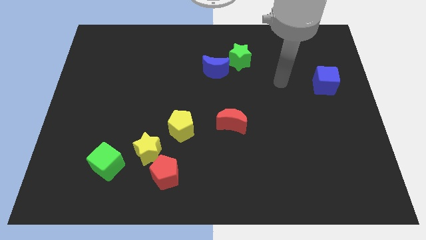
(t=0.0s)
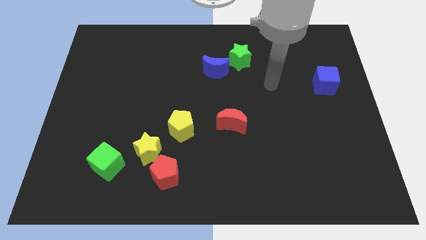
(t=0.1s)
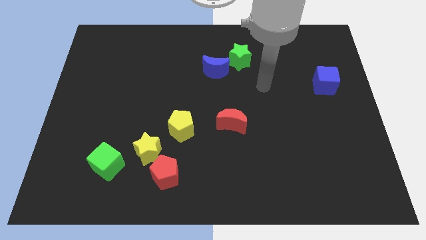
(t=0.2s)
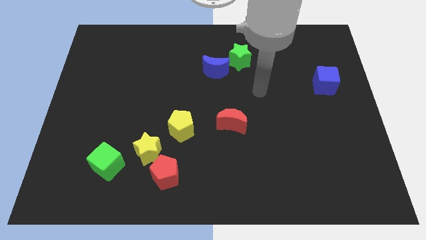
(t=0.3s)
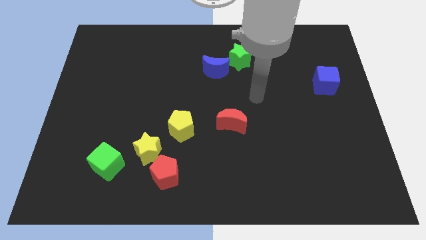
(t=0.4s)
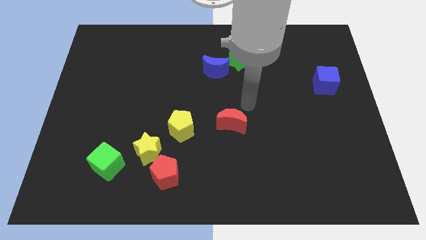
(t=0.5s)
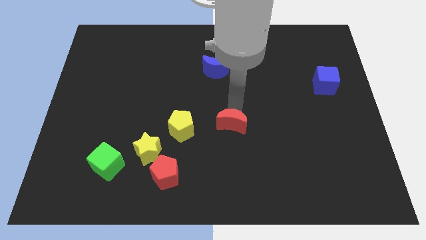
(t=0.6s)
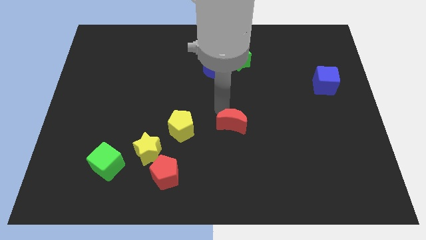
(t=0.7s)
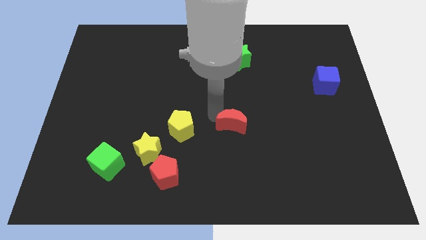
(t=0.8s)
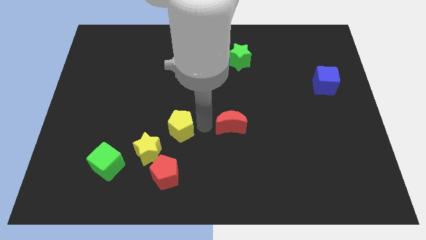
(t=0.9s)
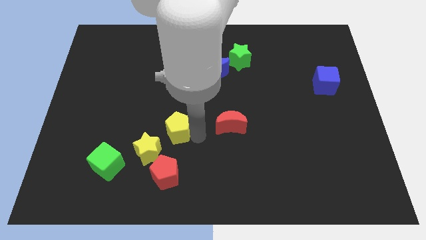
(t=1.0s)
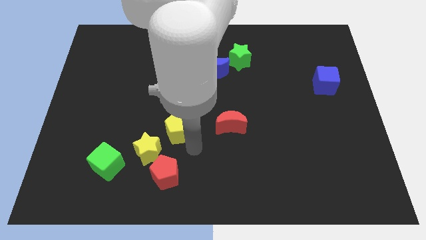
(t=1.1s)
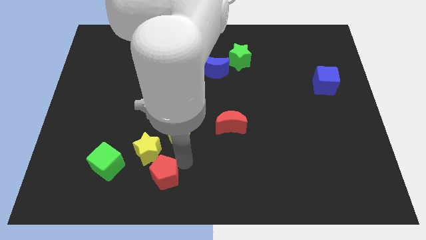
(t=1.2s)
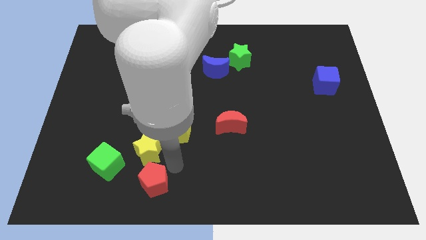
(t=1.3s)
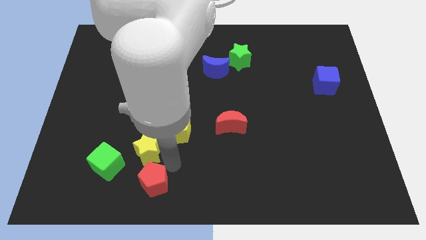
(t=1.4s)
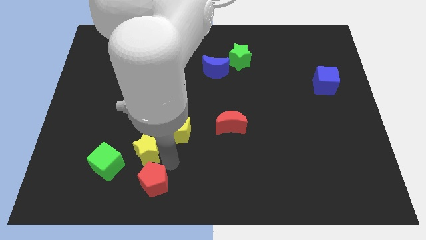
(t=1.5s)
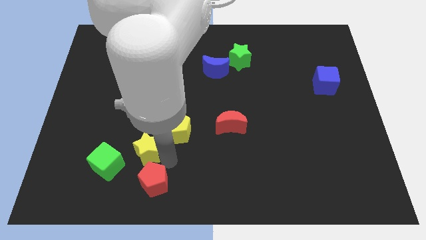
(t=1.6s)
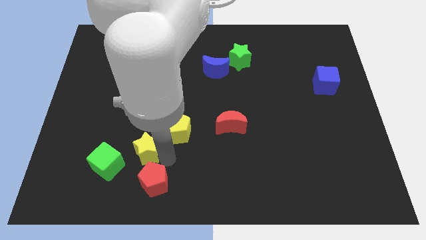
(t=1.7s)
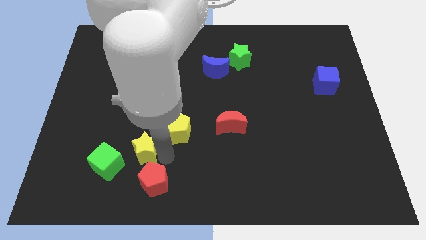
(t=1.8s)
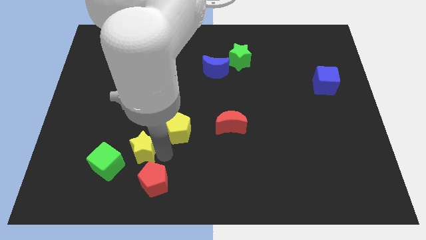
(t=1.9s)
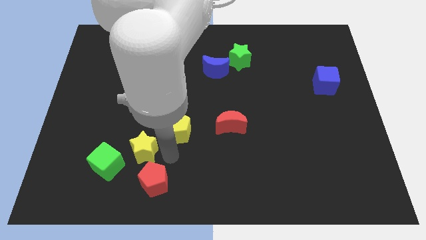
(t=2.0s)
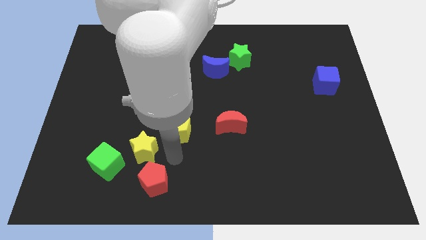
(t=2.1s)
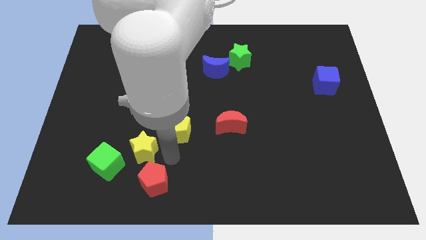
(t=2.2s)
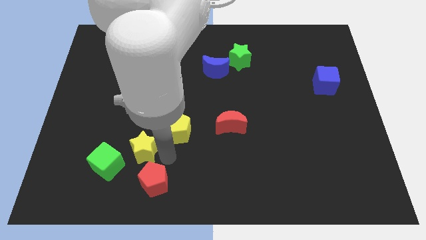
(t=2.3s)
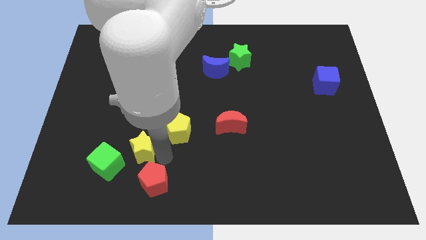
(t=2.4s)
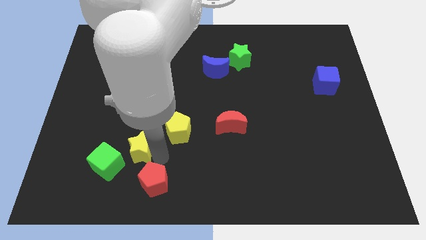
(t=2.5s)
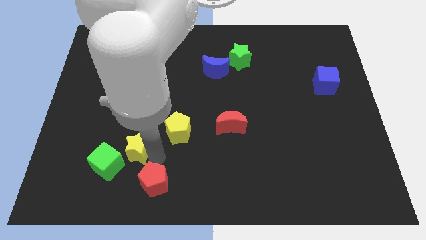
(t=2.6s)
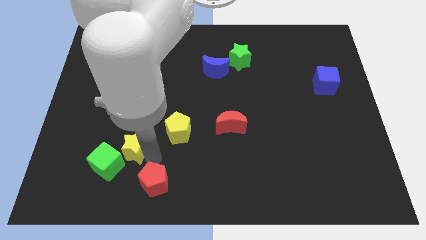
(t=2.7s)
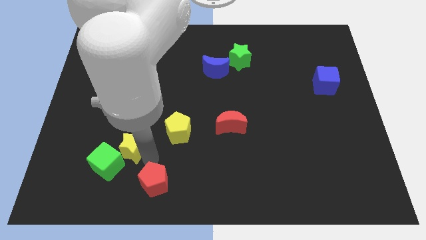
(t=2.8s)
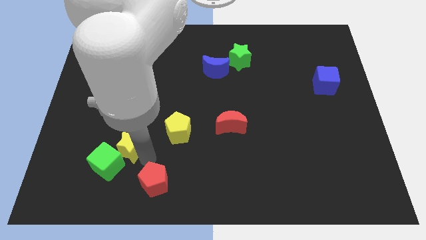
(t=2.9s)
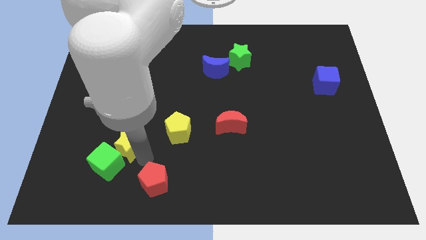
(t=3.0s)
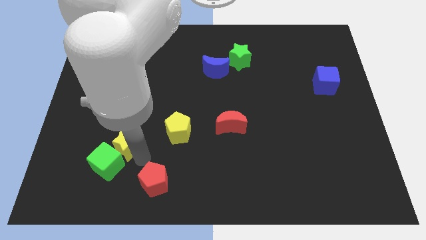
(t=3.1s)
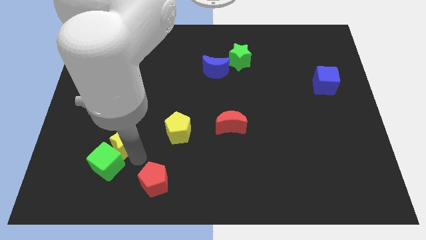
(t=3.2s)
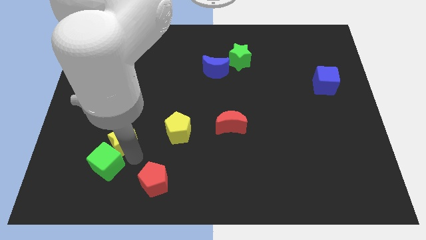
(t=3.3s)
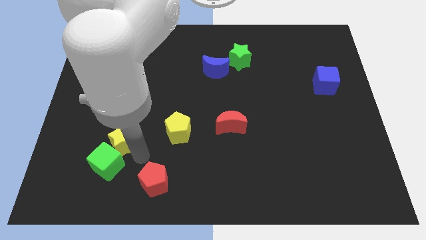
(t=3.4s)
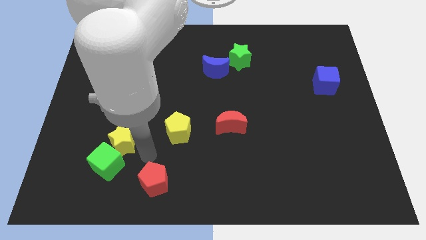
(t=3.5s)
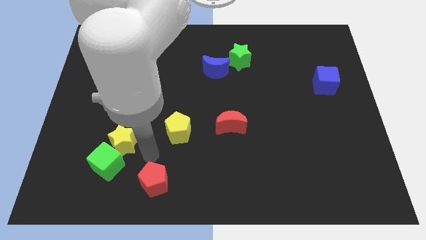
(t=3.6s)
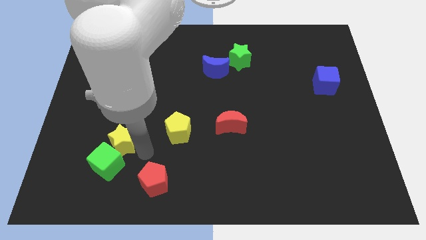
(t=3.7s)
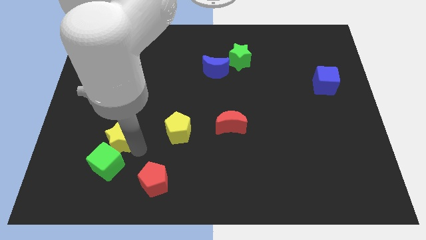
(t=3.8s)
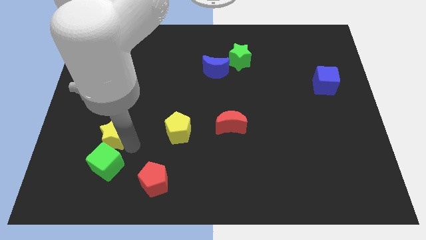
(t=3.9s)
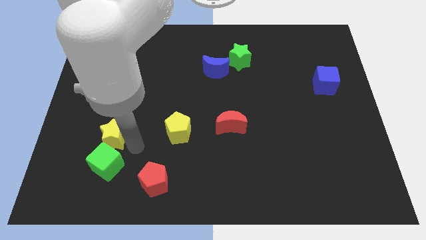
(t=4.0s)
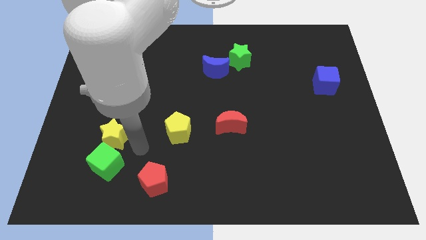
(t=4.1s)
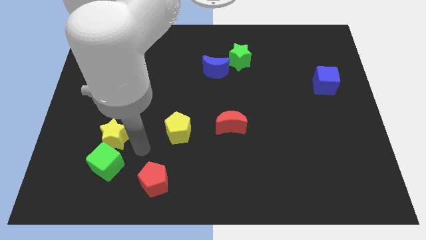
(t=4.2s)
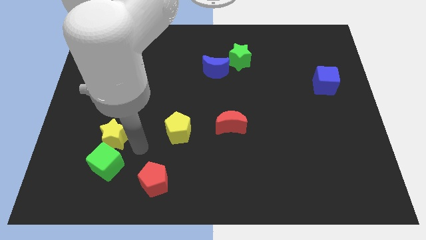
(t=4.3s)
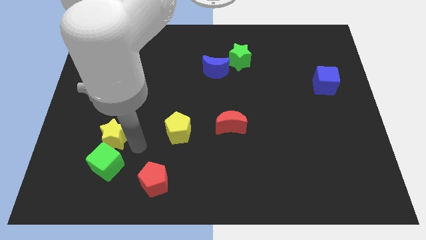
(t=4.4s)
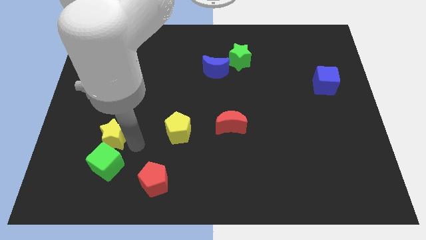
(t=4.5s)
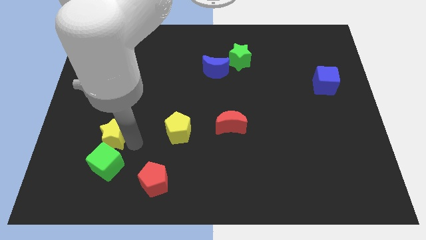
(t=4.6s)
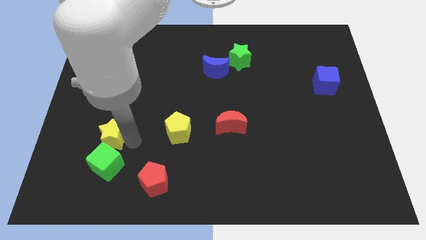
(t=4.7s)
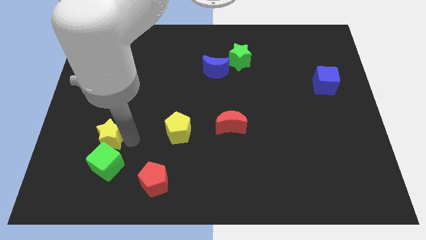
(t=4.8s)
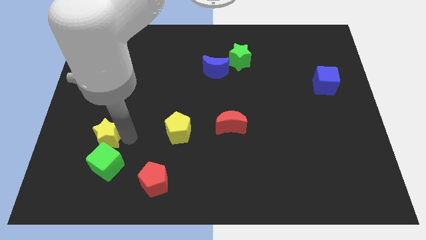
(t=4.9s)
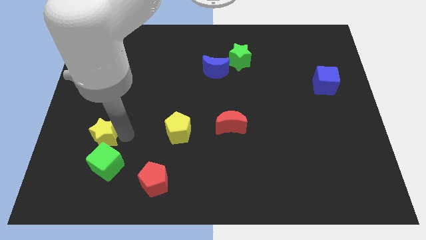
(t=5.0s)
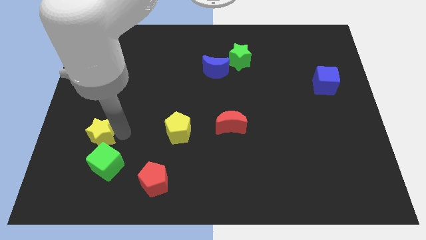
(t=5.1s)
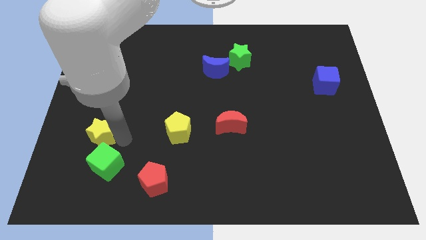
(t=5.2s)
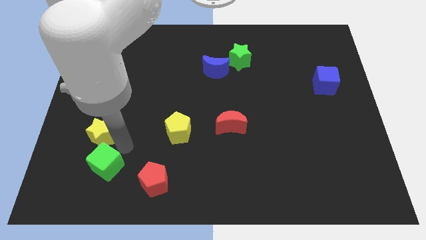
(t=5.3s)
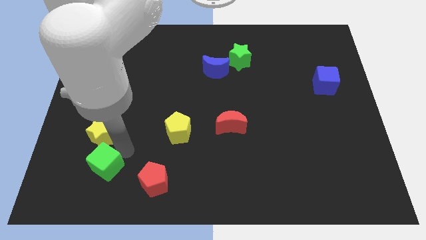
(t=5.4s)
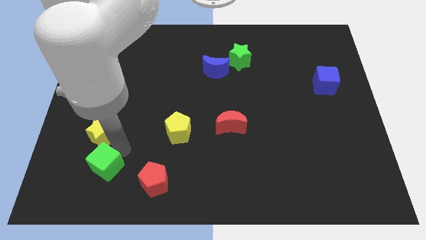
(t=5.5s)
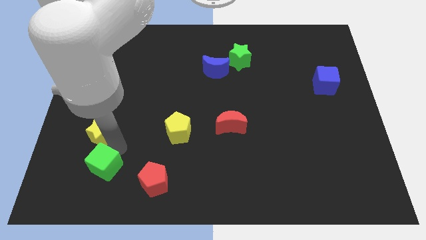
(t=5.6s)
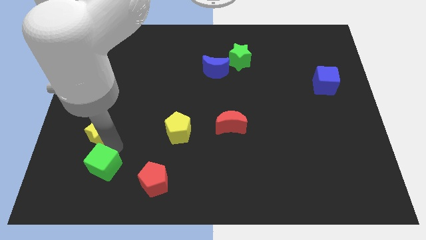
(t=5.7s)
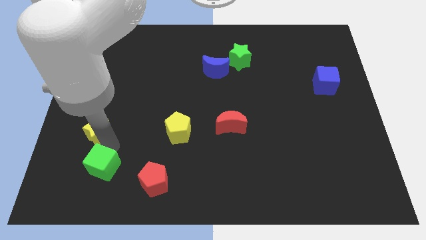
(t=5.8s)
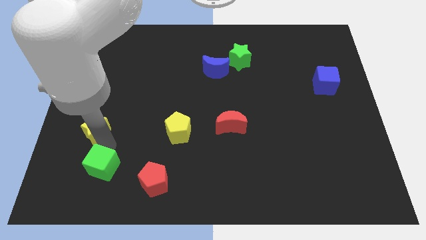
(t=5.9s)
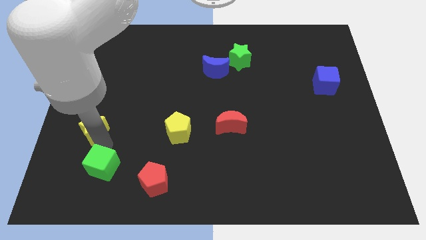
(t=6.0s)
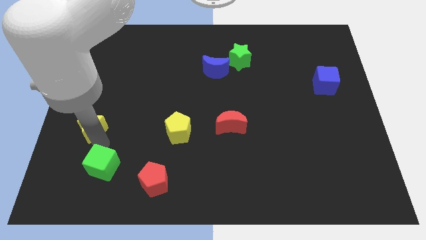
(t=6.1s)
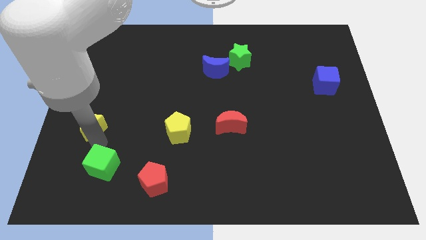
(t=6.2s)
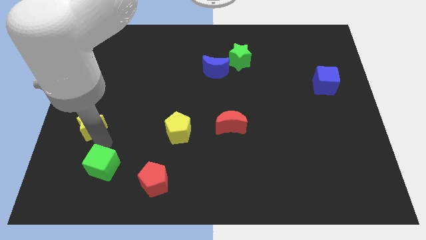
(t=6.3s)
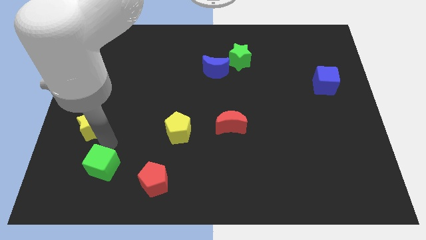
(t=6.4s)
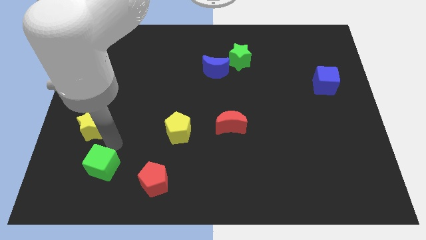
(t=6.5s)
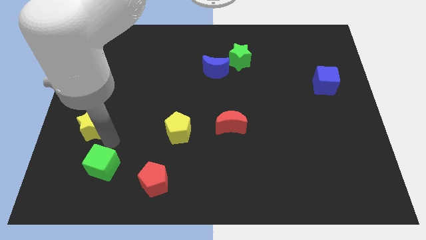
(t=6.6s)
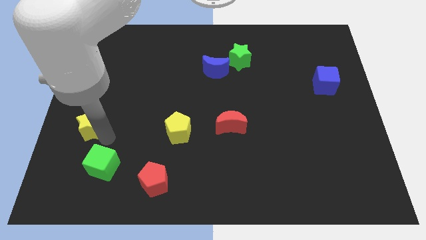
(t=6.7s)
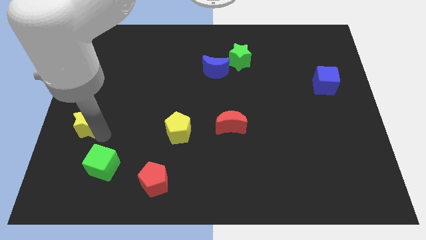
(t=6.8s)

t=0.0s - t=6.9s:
slide the yellow star to the left side of the board
